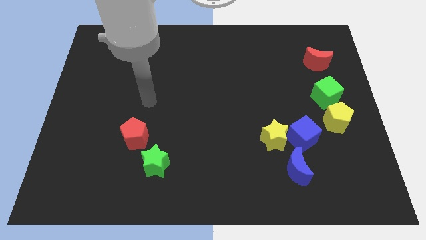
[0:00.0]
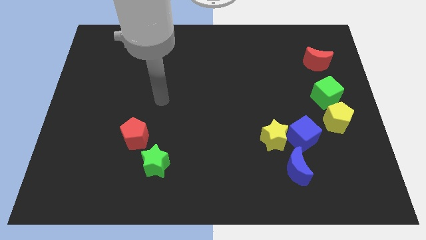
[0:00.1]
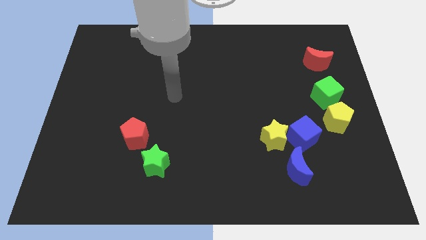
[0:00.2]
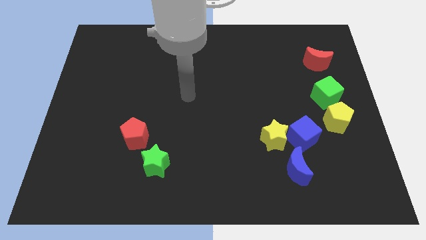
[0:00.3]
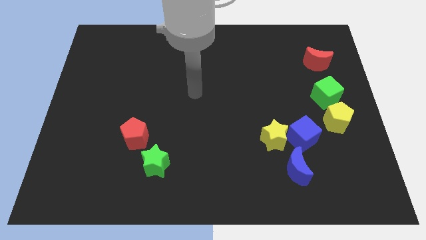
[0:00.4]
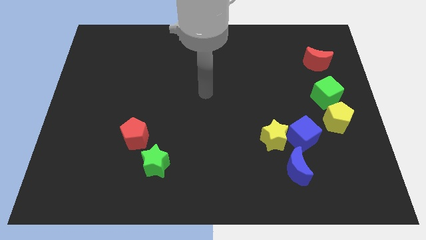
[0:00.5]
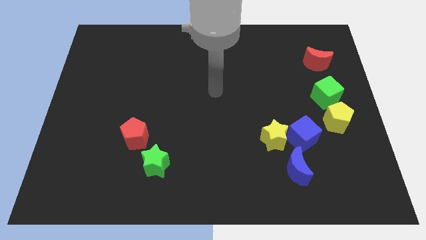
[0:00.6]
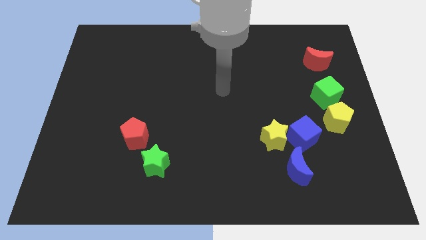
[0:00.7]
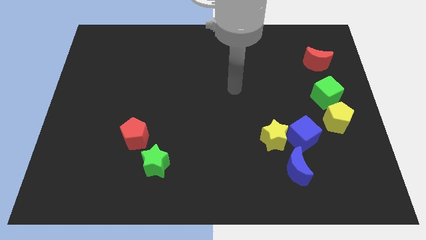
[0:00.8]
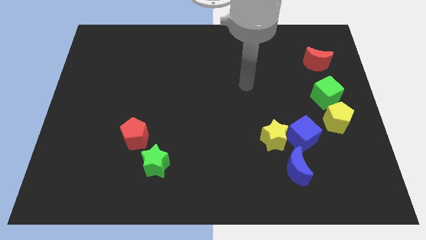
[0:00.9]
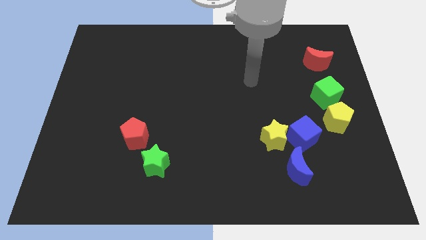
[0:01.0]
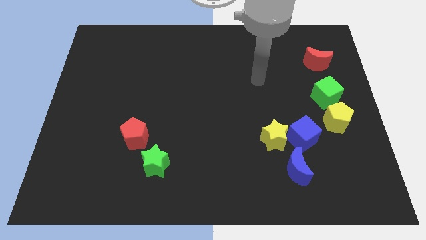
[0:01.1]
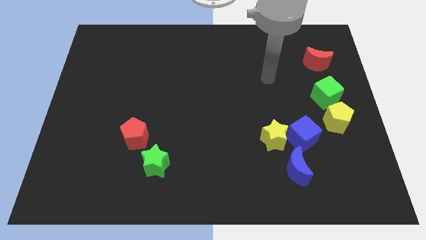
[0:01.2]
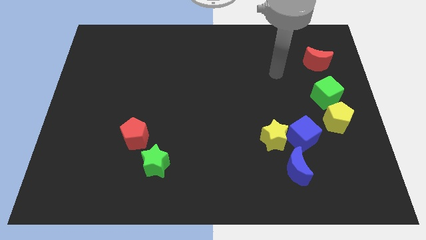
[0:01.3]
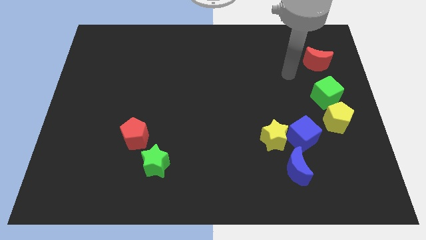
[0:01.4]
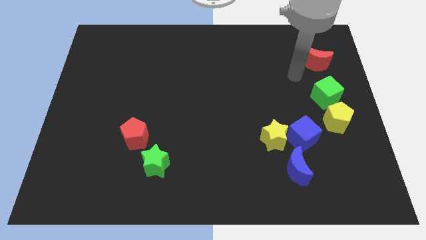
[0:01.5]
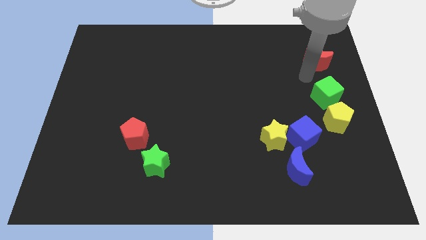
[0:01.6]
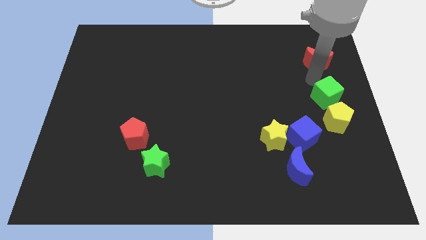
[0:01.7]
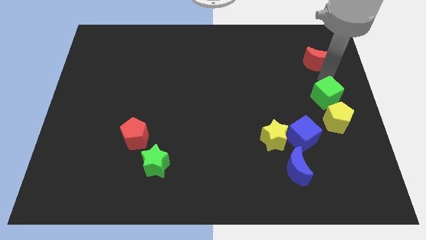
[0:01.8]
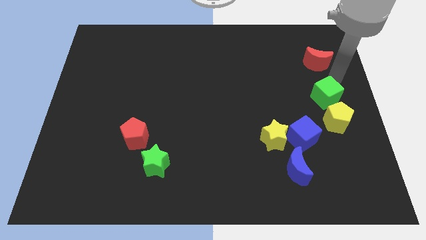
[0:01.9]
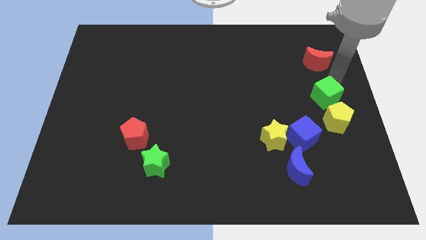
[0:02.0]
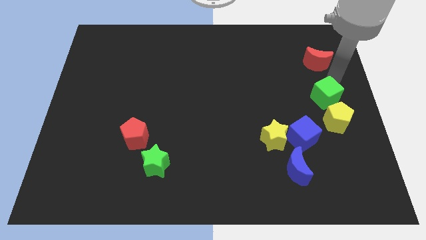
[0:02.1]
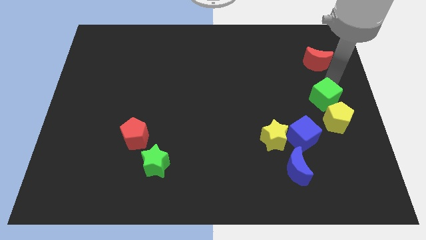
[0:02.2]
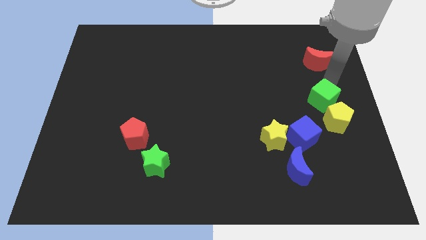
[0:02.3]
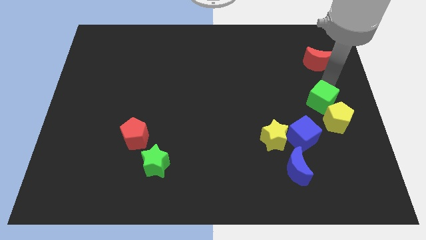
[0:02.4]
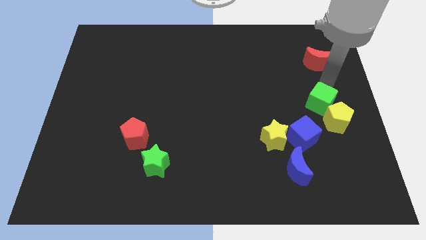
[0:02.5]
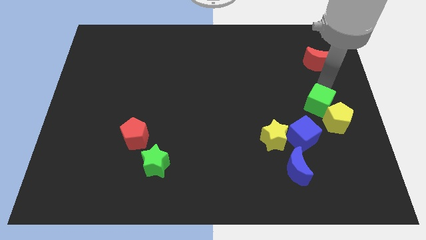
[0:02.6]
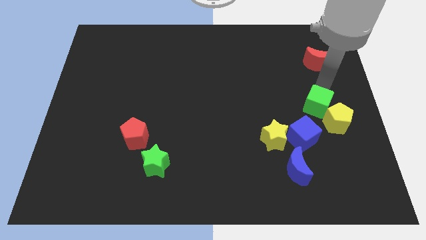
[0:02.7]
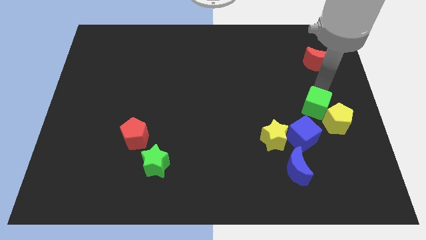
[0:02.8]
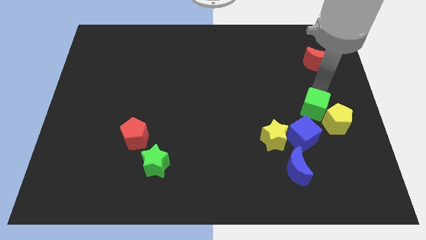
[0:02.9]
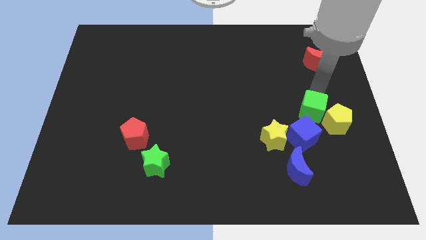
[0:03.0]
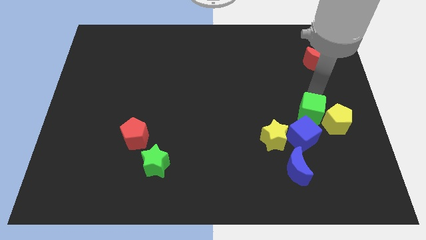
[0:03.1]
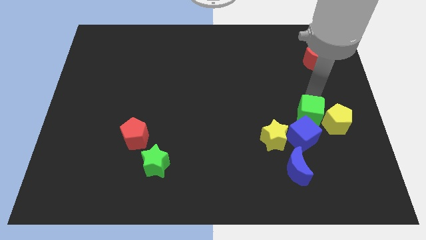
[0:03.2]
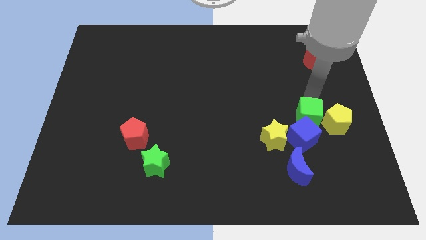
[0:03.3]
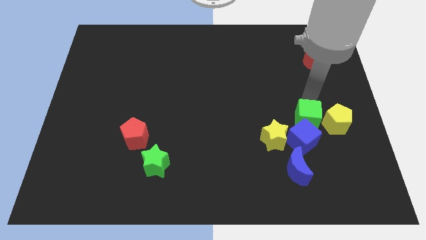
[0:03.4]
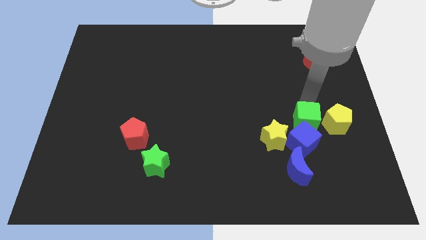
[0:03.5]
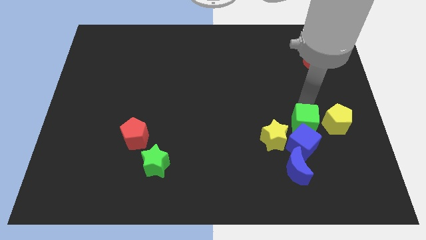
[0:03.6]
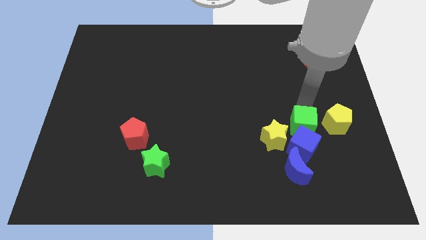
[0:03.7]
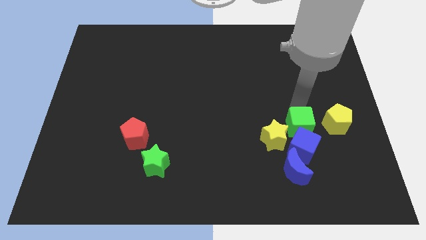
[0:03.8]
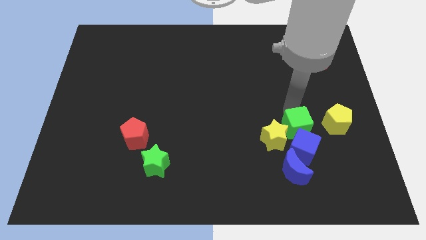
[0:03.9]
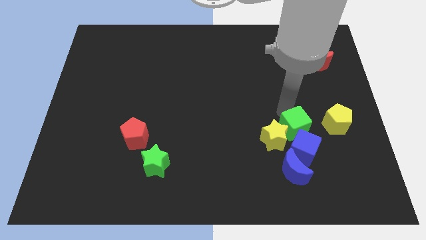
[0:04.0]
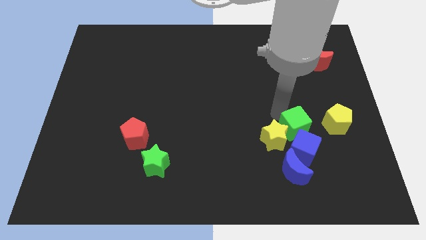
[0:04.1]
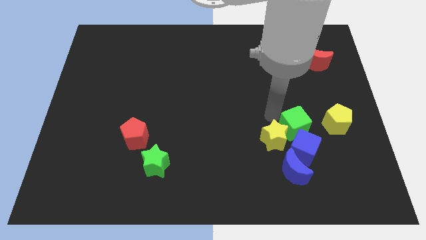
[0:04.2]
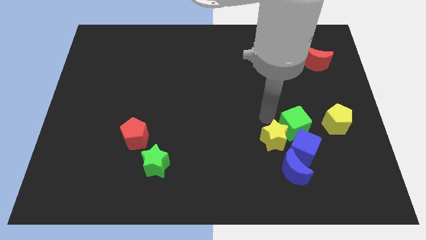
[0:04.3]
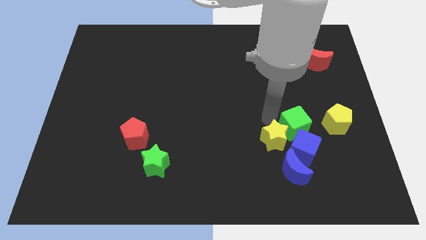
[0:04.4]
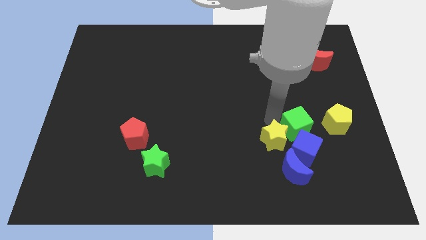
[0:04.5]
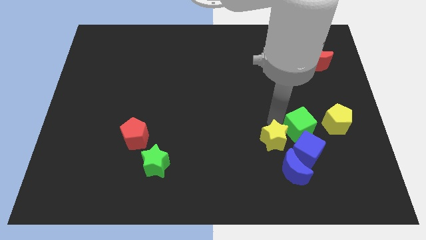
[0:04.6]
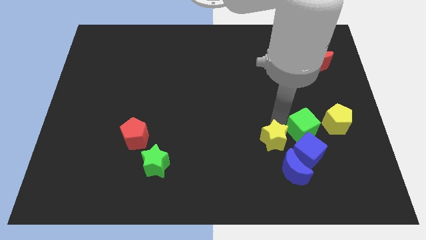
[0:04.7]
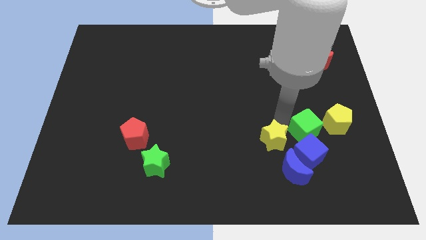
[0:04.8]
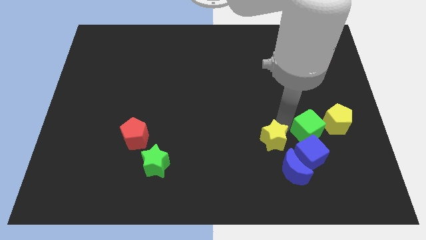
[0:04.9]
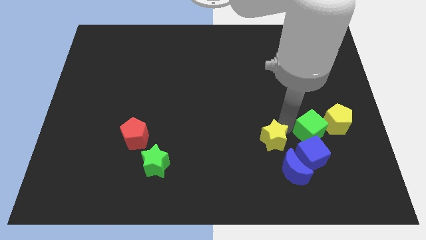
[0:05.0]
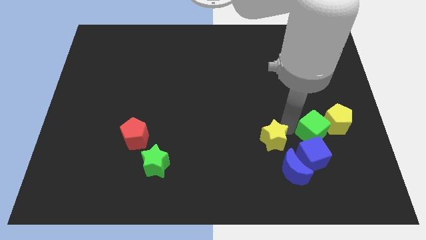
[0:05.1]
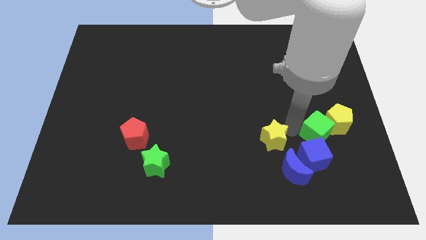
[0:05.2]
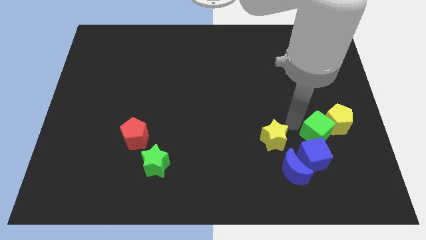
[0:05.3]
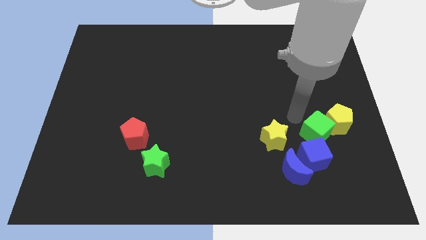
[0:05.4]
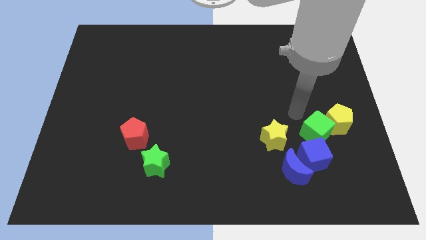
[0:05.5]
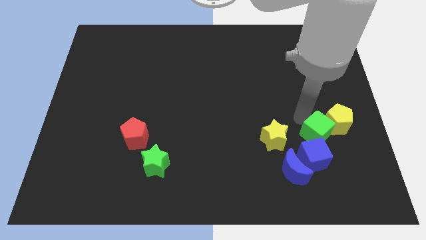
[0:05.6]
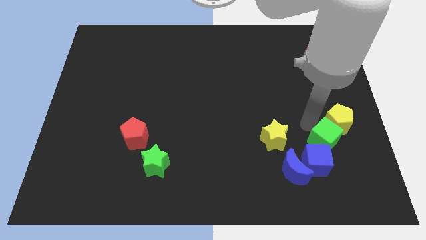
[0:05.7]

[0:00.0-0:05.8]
push the green cube below the yellow pentagon

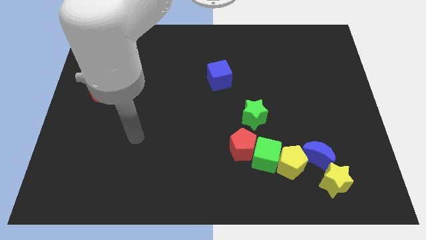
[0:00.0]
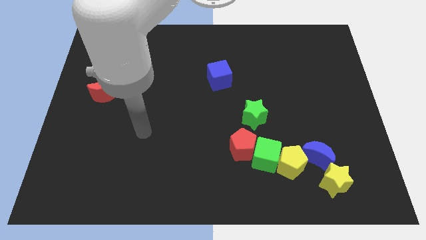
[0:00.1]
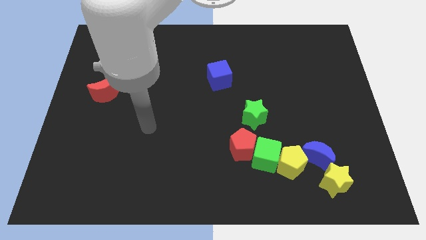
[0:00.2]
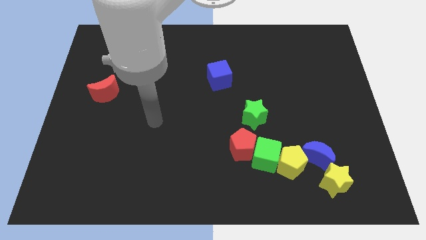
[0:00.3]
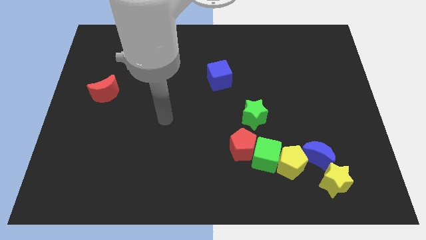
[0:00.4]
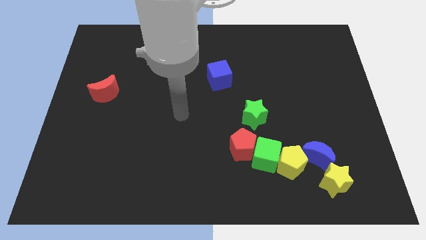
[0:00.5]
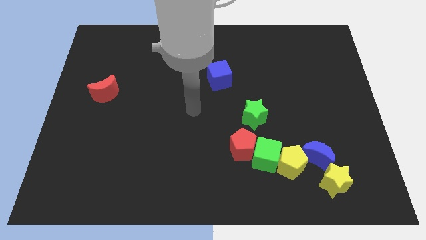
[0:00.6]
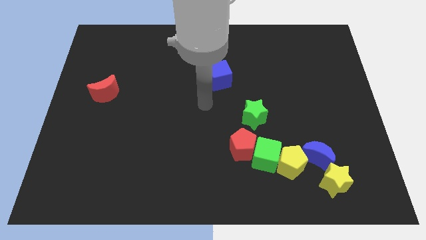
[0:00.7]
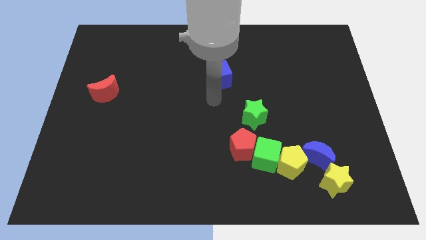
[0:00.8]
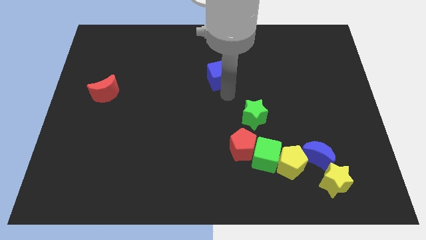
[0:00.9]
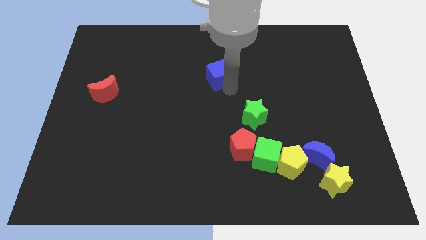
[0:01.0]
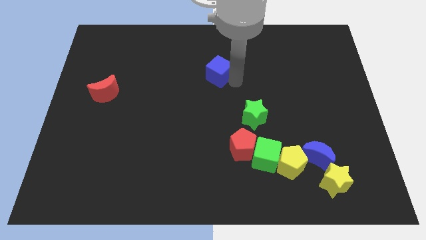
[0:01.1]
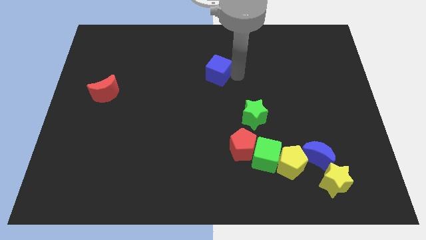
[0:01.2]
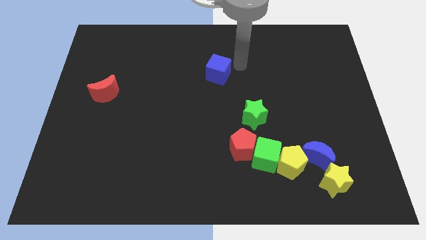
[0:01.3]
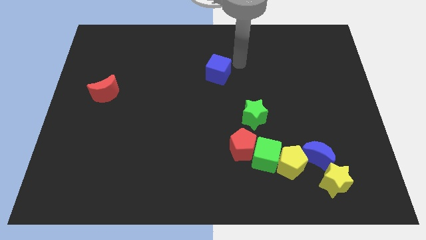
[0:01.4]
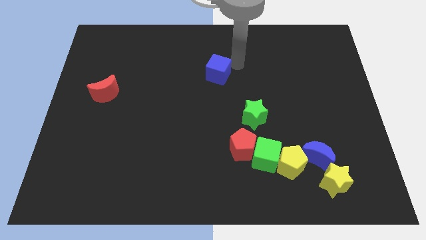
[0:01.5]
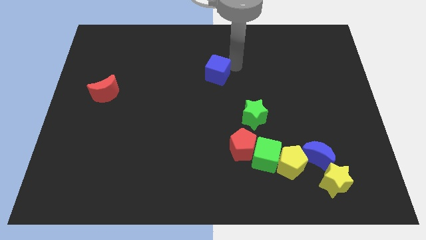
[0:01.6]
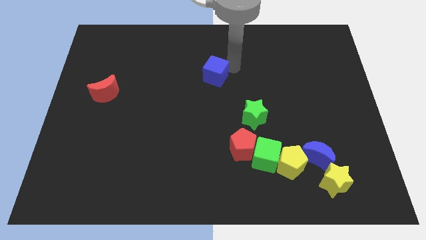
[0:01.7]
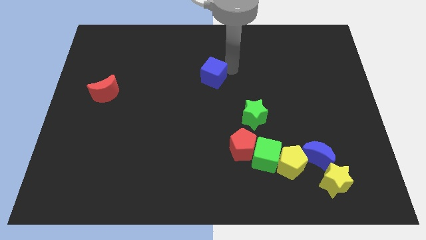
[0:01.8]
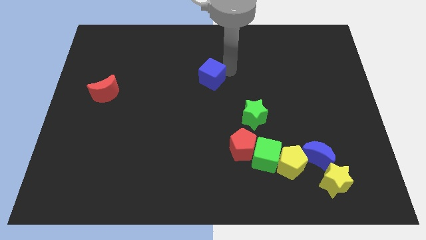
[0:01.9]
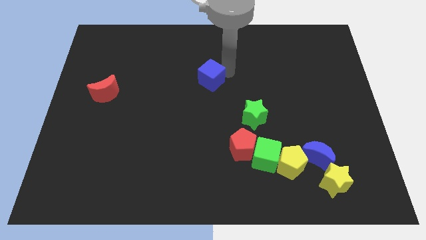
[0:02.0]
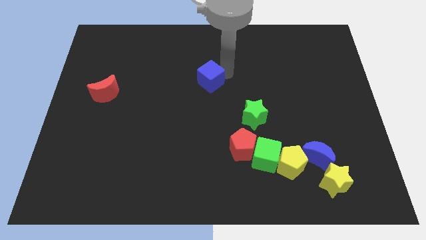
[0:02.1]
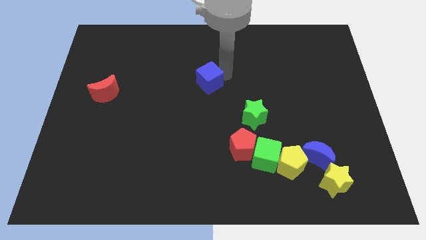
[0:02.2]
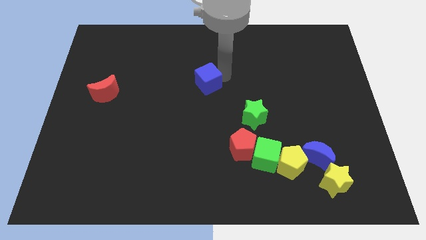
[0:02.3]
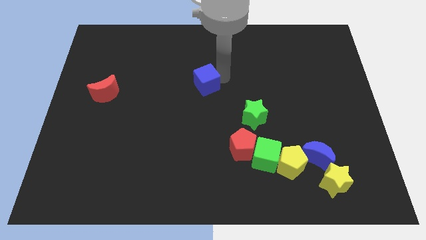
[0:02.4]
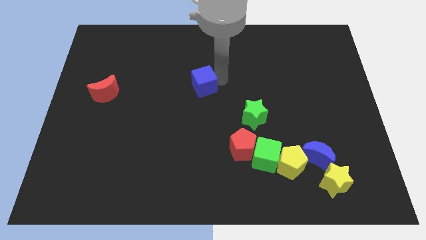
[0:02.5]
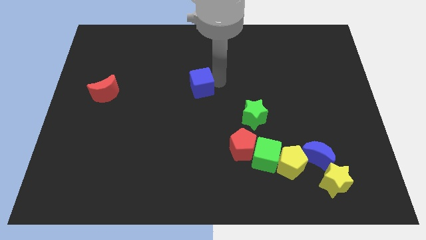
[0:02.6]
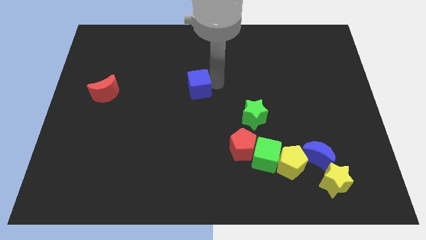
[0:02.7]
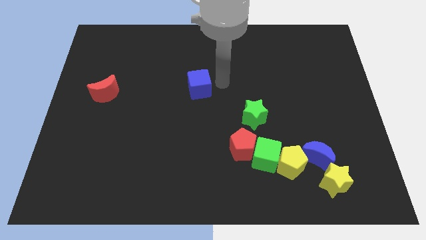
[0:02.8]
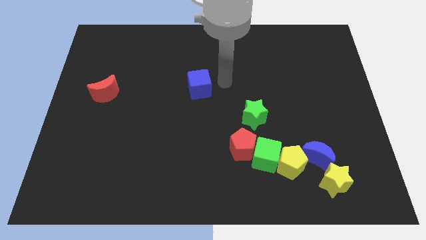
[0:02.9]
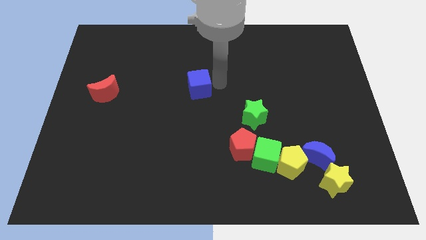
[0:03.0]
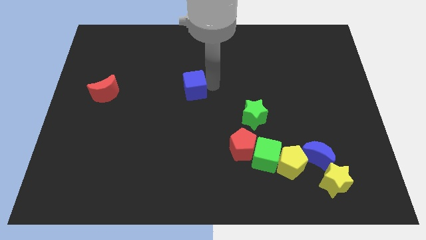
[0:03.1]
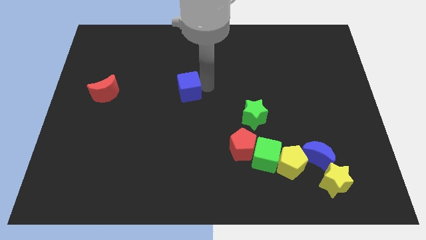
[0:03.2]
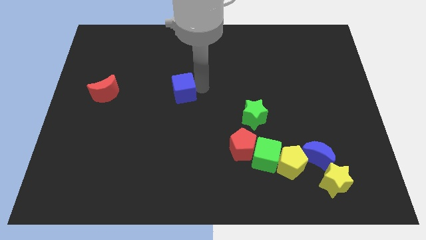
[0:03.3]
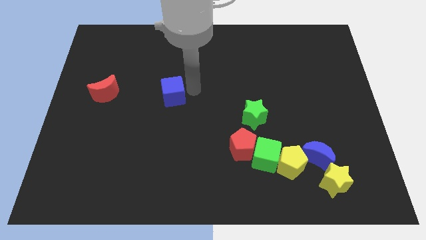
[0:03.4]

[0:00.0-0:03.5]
slide the blue cube to the right side of the red moon
